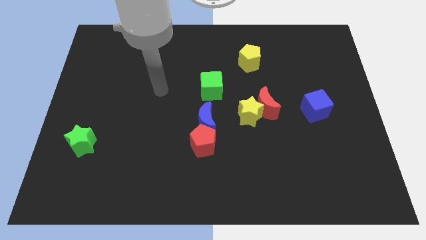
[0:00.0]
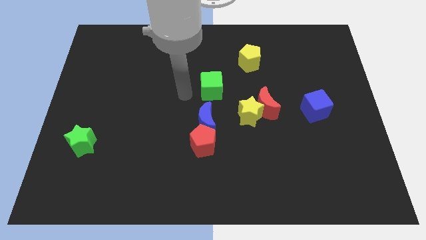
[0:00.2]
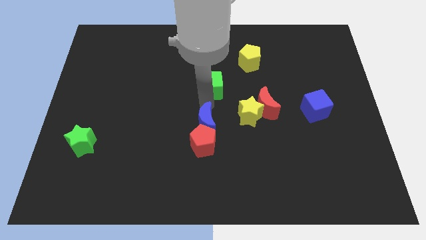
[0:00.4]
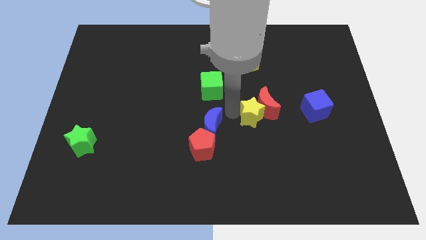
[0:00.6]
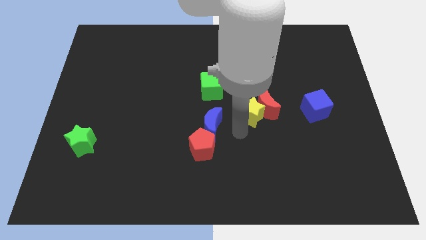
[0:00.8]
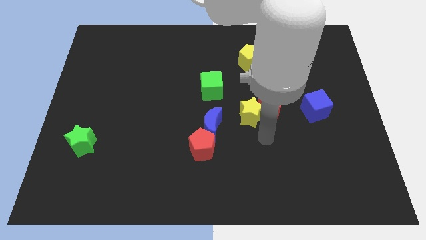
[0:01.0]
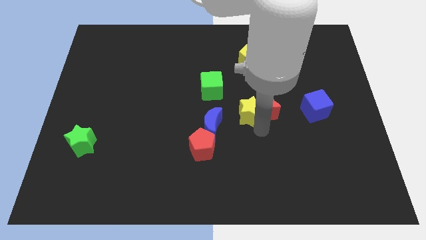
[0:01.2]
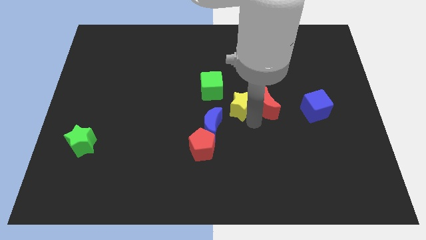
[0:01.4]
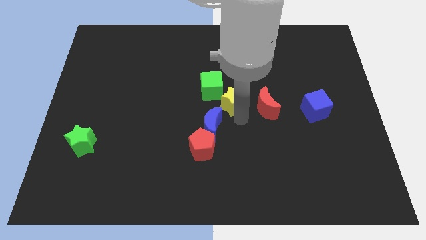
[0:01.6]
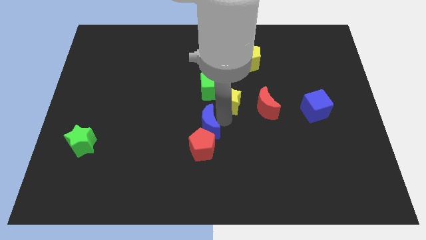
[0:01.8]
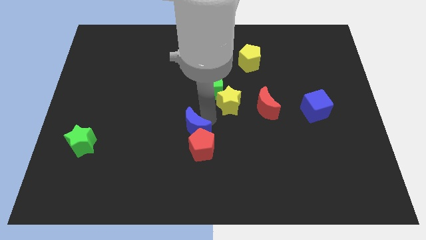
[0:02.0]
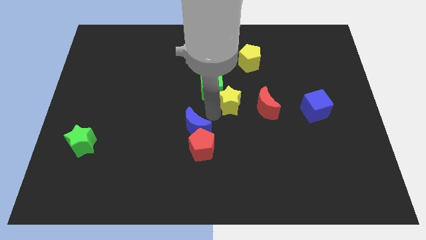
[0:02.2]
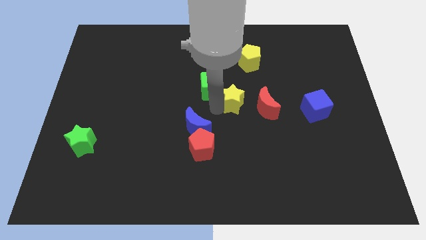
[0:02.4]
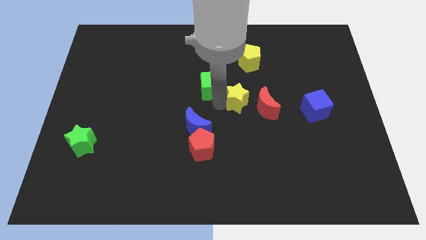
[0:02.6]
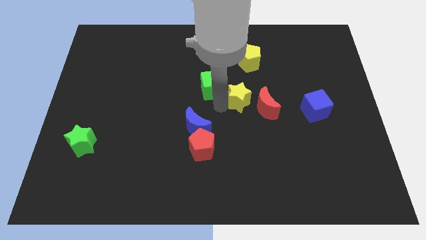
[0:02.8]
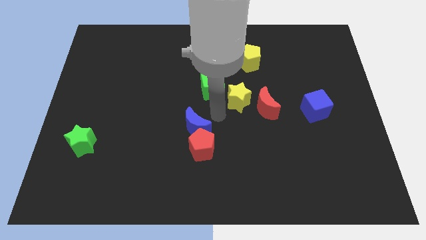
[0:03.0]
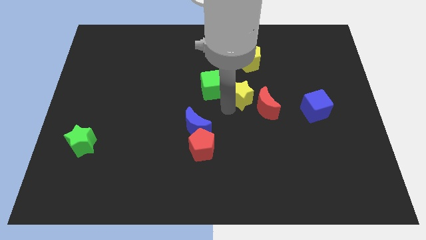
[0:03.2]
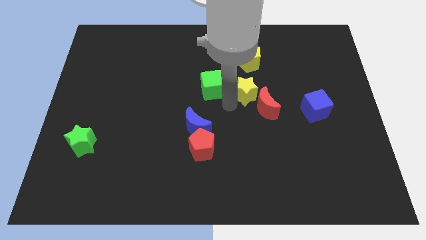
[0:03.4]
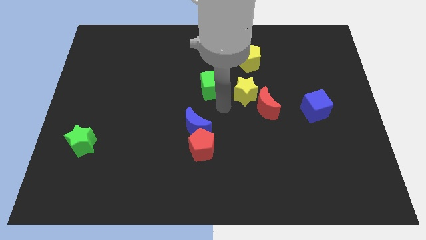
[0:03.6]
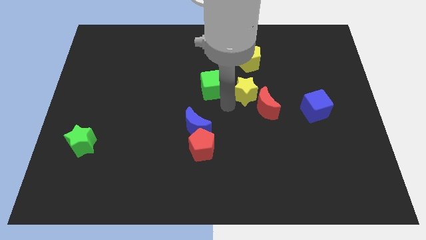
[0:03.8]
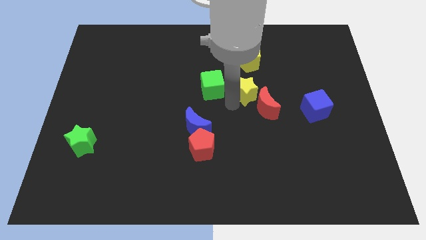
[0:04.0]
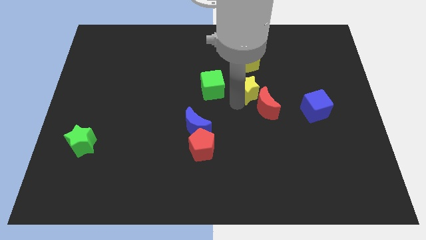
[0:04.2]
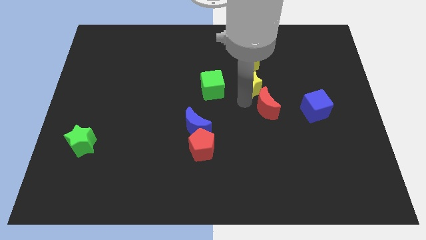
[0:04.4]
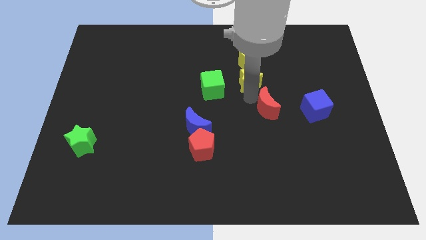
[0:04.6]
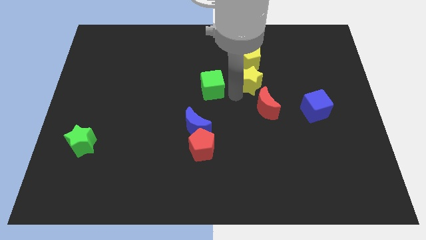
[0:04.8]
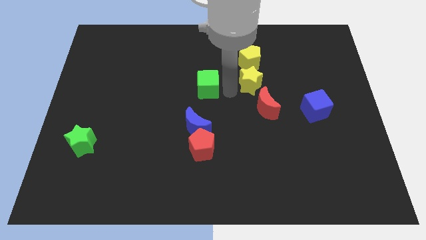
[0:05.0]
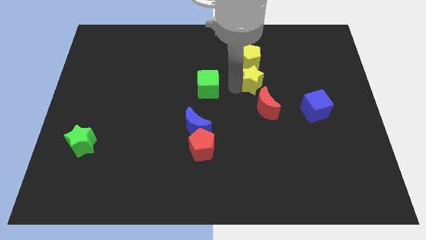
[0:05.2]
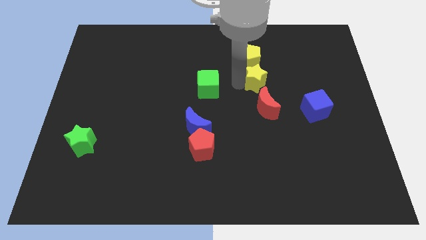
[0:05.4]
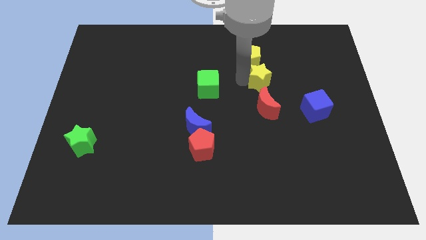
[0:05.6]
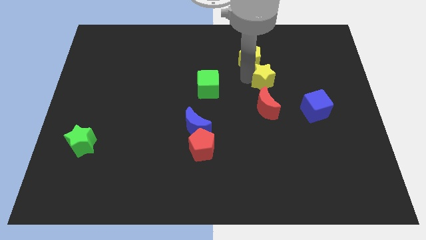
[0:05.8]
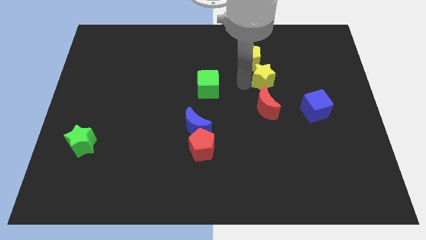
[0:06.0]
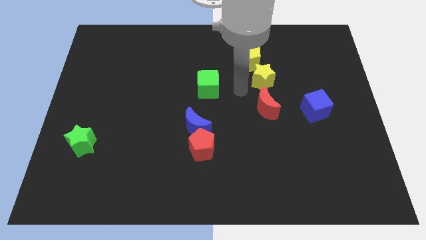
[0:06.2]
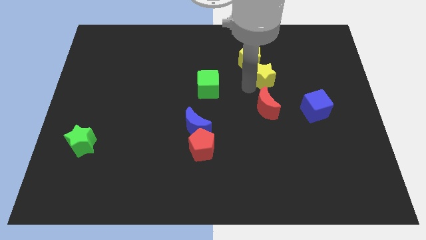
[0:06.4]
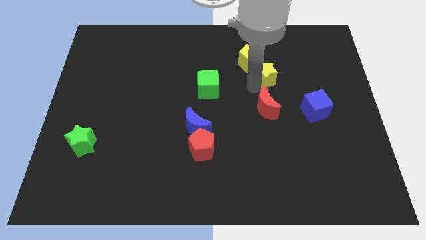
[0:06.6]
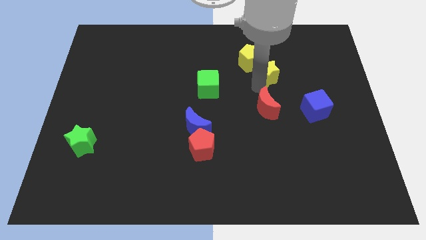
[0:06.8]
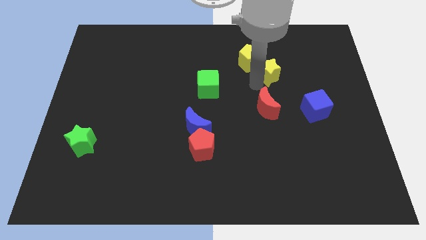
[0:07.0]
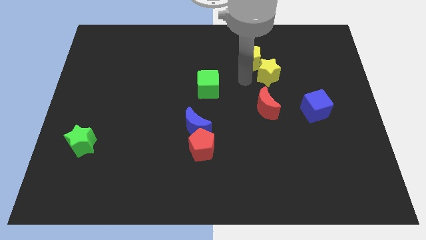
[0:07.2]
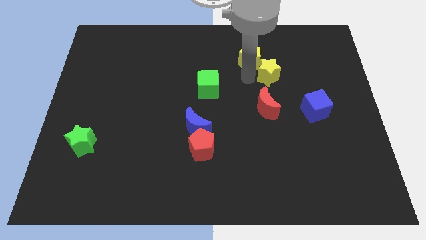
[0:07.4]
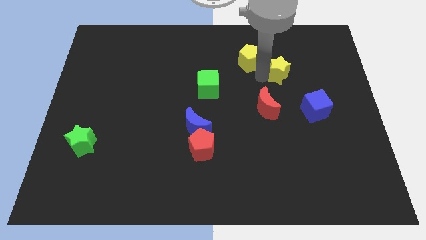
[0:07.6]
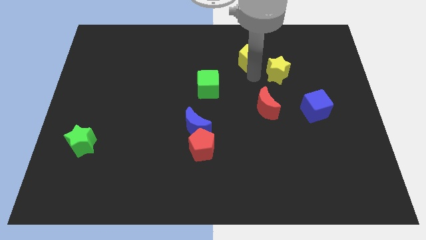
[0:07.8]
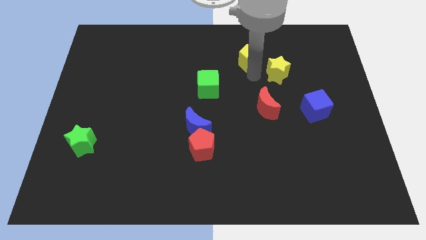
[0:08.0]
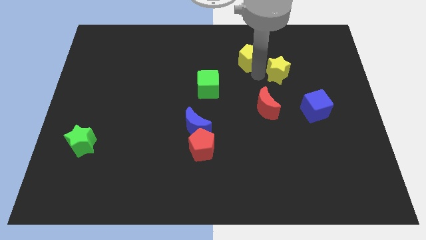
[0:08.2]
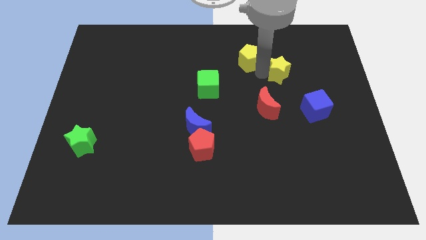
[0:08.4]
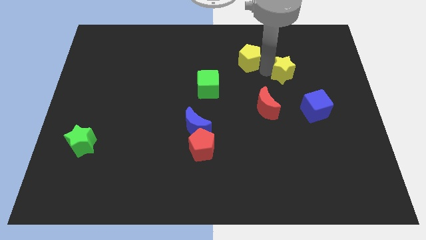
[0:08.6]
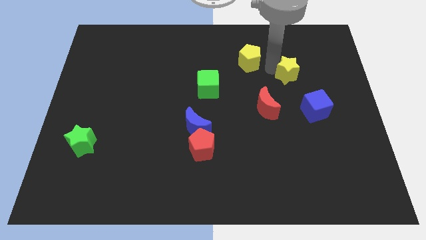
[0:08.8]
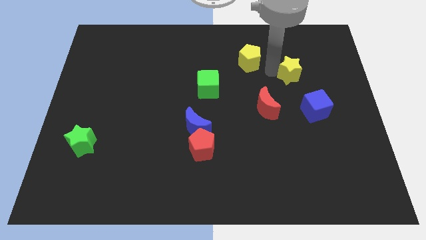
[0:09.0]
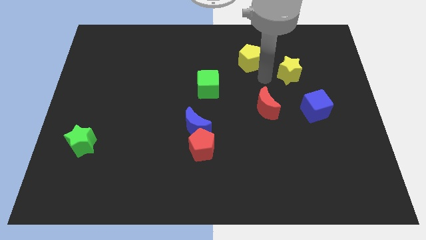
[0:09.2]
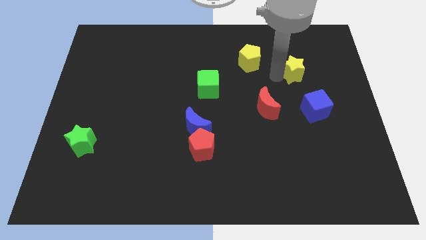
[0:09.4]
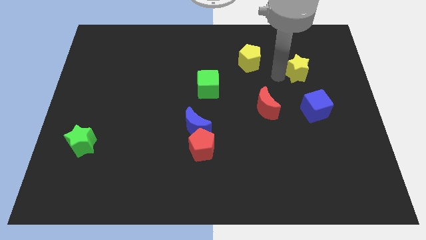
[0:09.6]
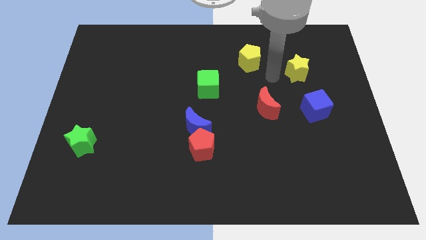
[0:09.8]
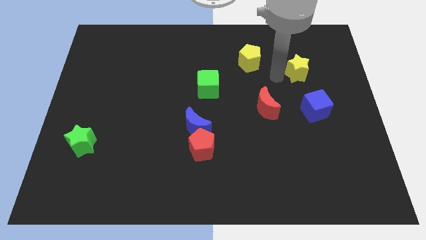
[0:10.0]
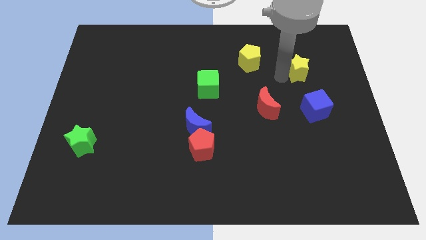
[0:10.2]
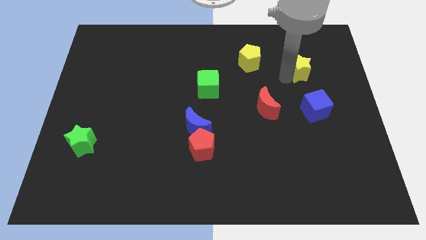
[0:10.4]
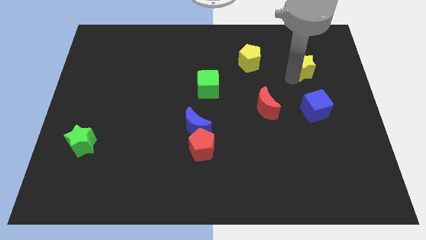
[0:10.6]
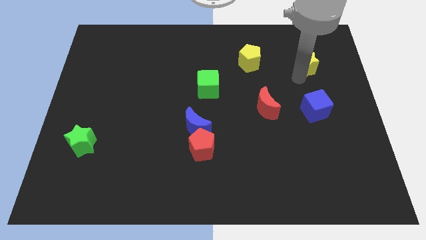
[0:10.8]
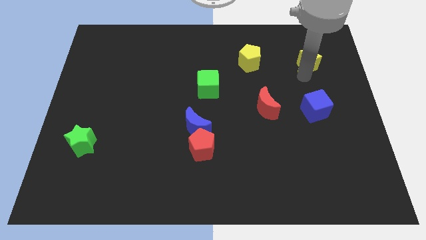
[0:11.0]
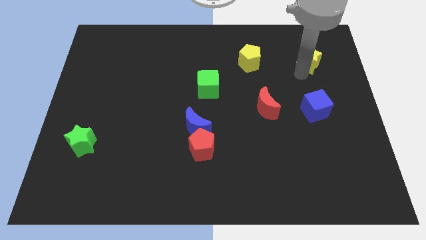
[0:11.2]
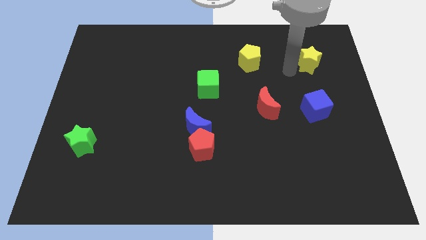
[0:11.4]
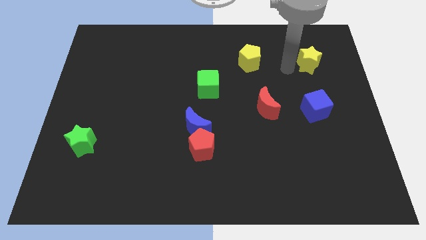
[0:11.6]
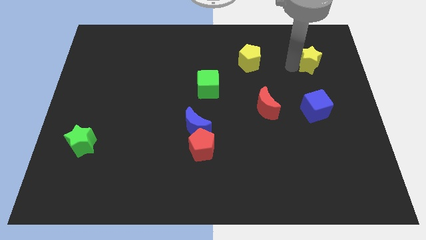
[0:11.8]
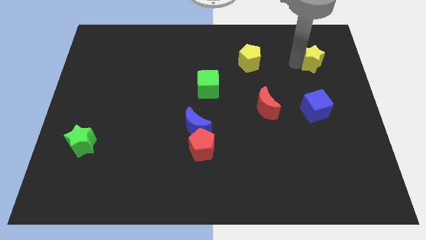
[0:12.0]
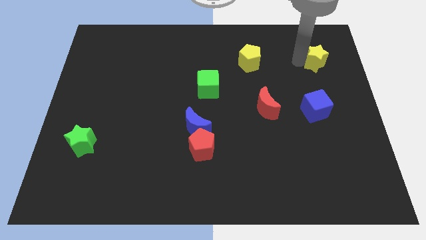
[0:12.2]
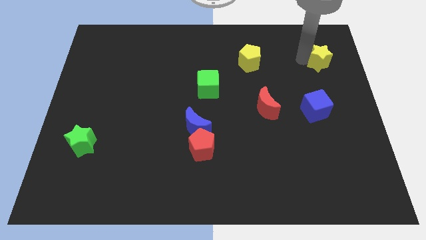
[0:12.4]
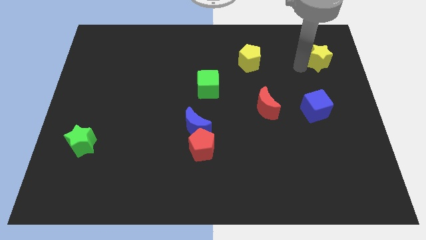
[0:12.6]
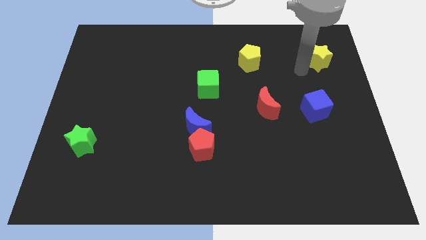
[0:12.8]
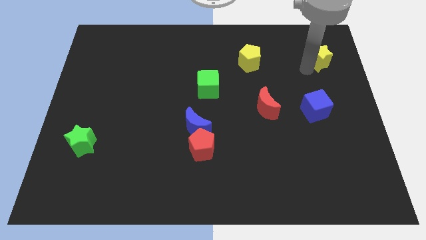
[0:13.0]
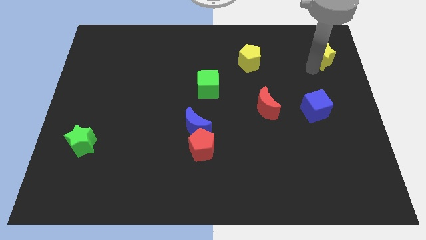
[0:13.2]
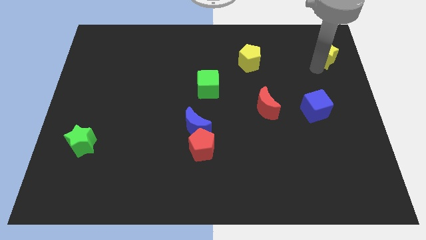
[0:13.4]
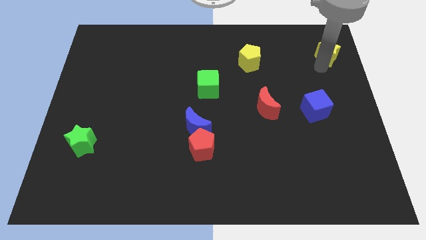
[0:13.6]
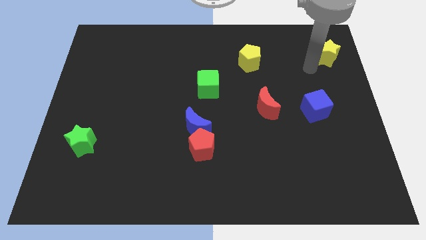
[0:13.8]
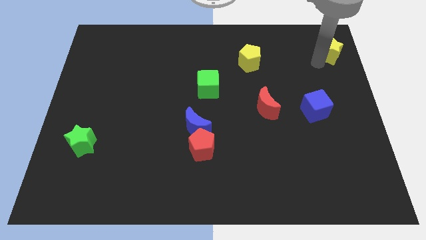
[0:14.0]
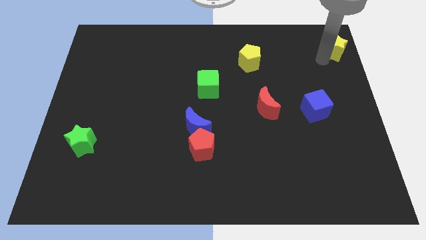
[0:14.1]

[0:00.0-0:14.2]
put the yellow star to the top right corner
